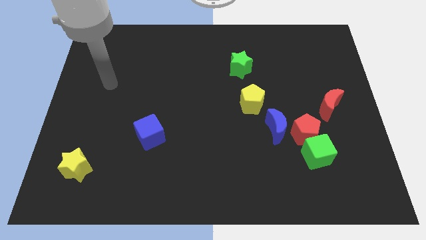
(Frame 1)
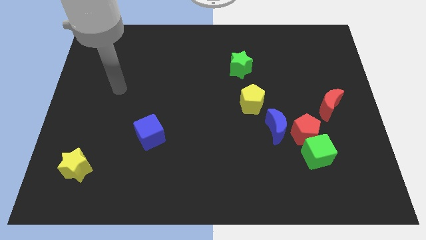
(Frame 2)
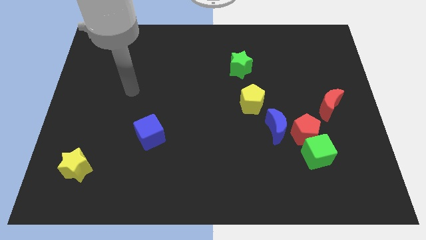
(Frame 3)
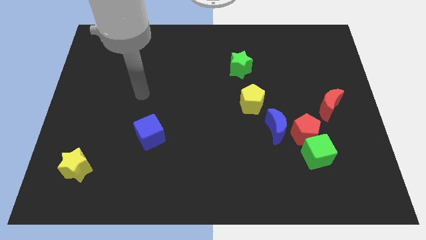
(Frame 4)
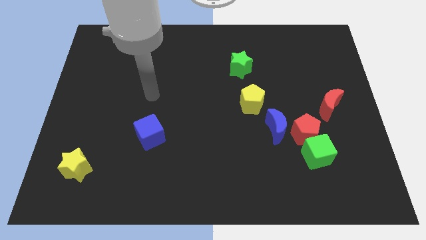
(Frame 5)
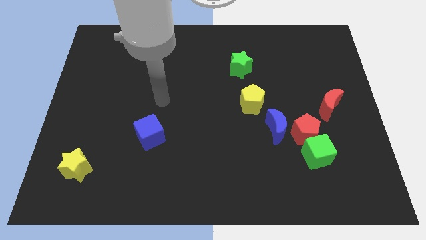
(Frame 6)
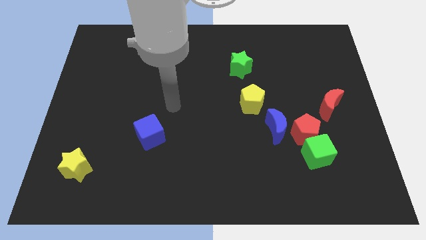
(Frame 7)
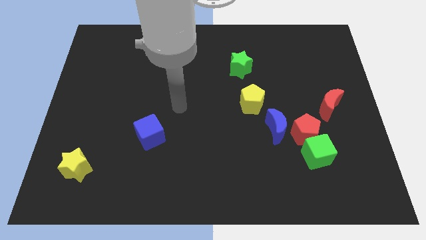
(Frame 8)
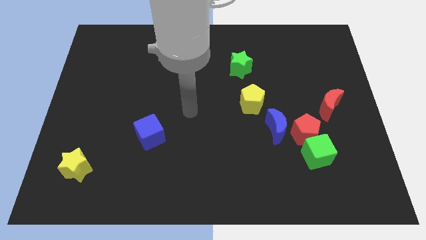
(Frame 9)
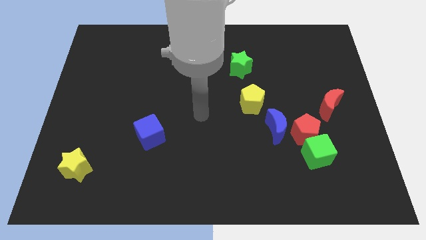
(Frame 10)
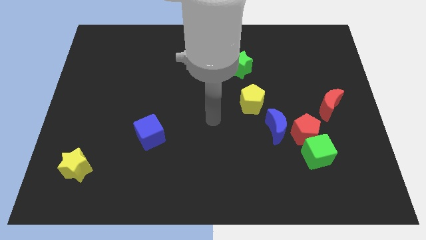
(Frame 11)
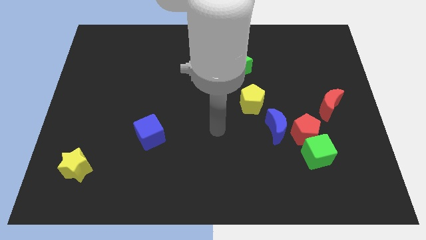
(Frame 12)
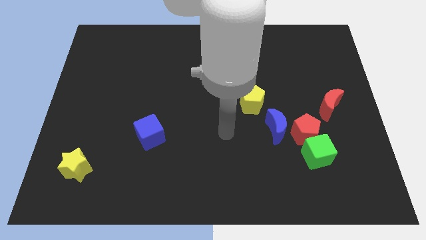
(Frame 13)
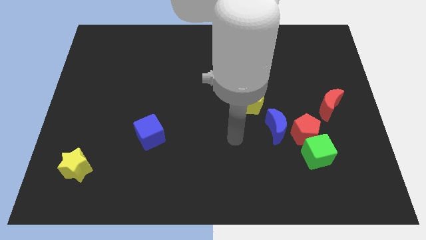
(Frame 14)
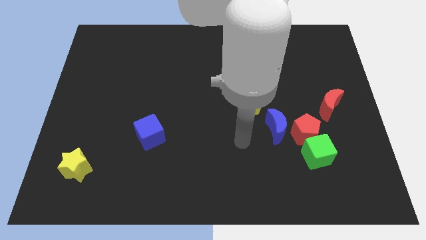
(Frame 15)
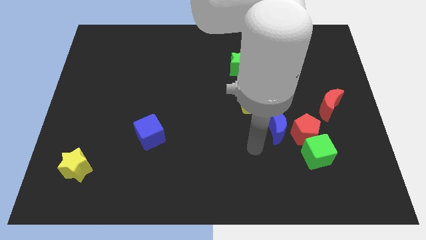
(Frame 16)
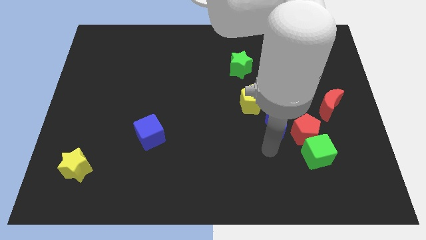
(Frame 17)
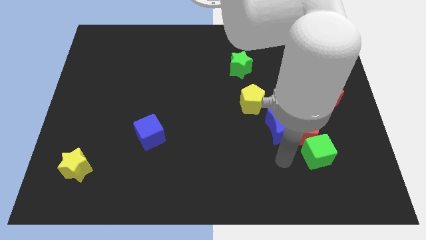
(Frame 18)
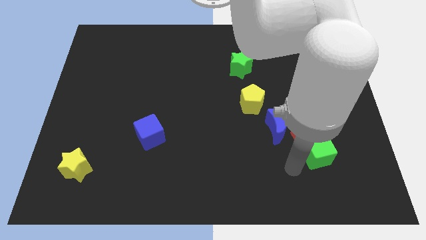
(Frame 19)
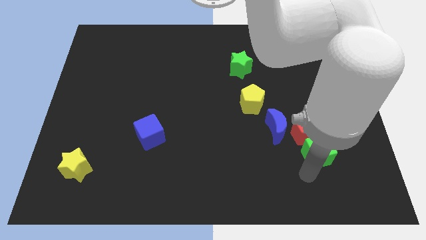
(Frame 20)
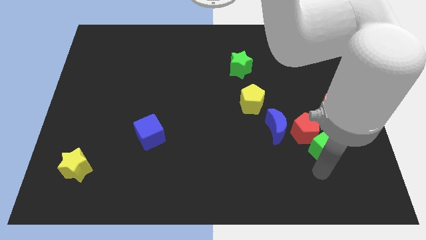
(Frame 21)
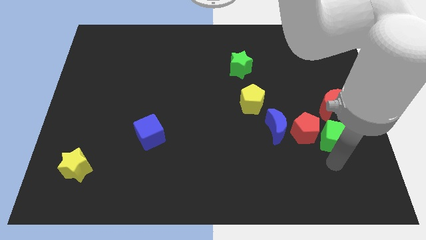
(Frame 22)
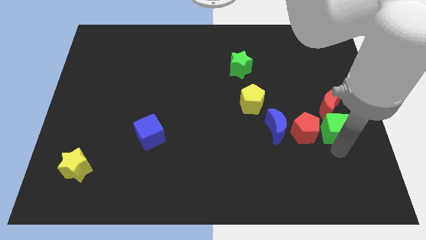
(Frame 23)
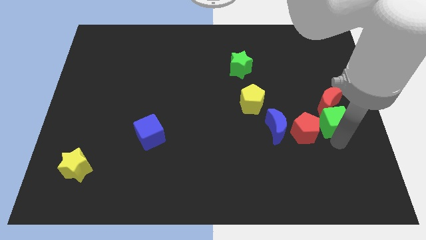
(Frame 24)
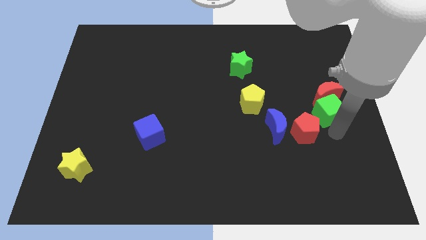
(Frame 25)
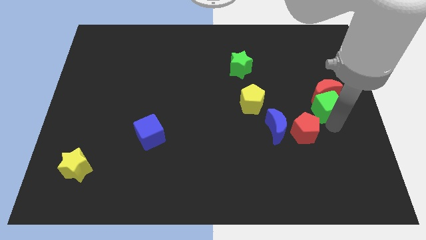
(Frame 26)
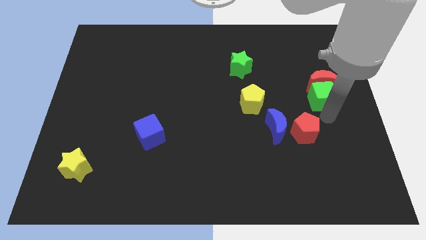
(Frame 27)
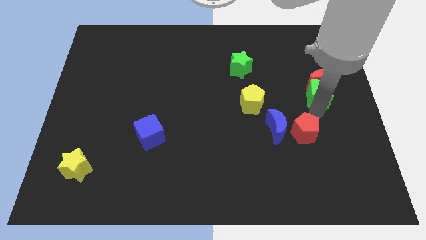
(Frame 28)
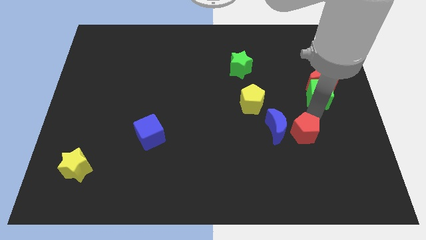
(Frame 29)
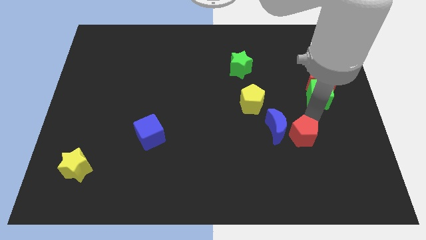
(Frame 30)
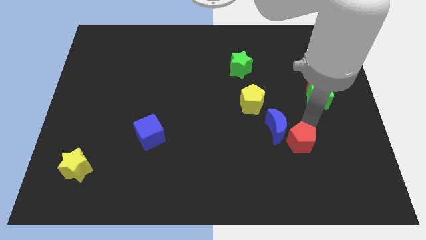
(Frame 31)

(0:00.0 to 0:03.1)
pull the red pentagon apart from the clump

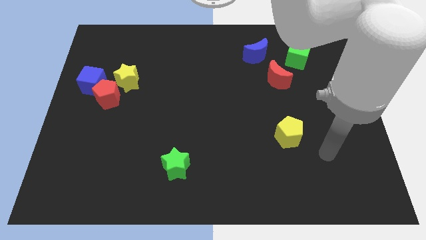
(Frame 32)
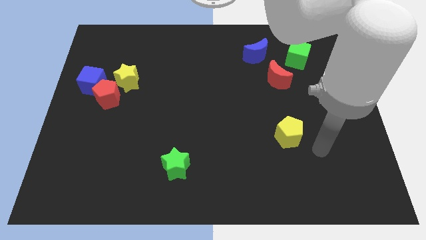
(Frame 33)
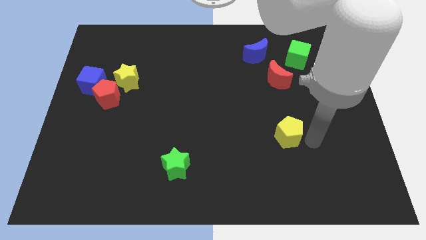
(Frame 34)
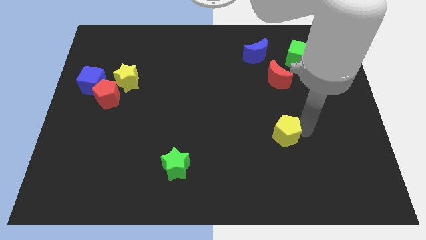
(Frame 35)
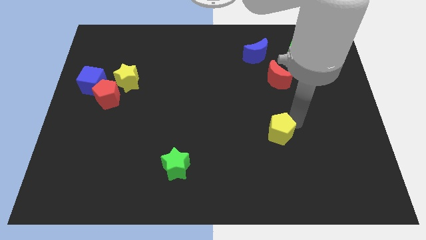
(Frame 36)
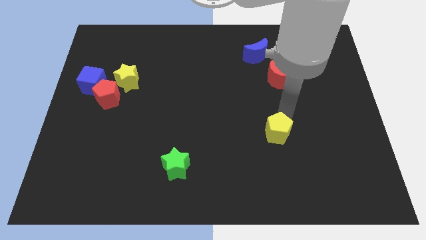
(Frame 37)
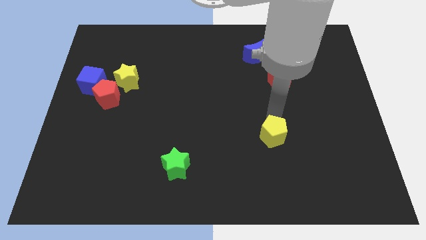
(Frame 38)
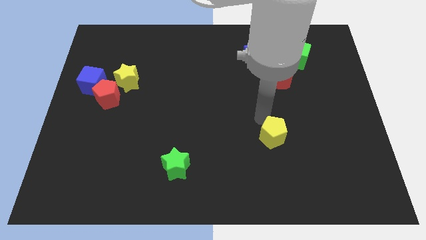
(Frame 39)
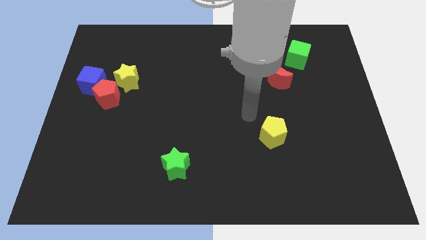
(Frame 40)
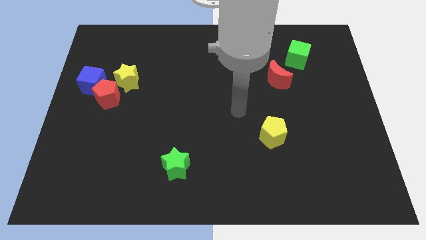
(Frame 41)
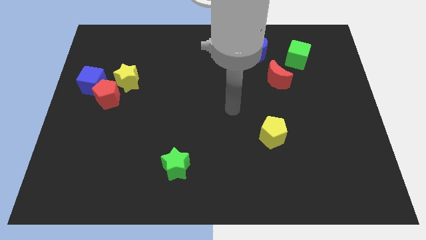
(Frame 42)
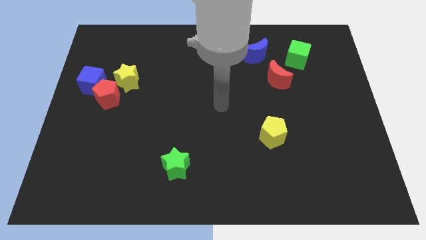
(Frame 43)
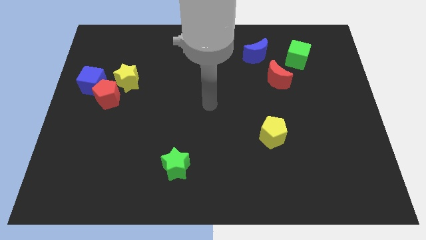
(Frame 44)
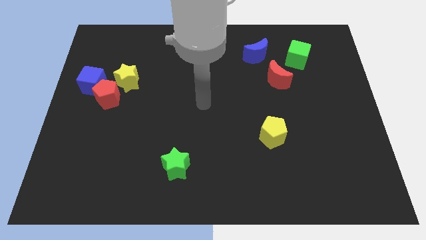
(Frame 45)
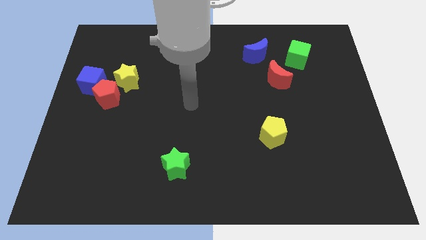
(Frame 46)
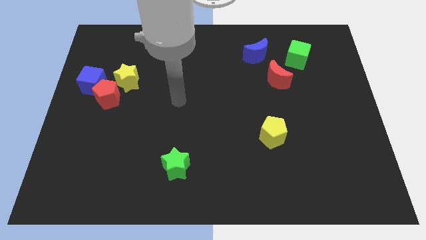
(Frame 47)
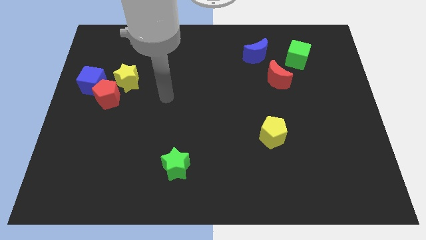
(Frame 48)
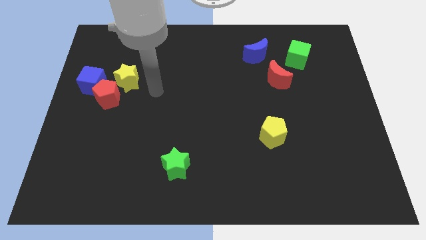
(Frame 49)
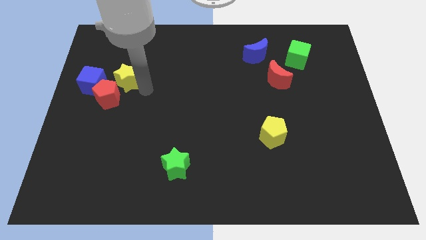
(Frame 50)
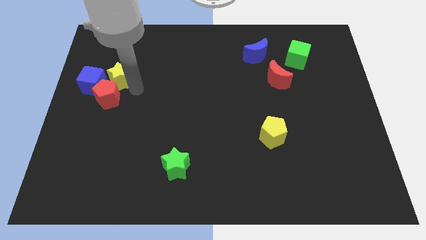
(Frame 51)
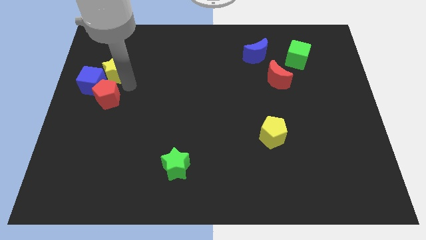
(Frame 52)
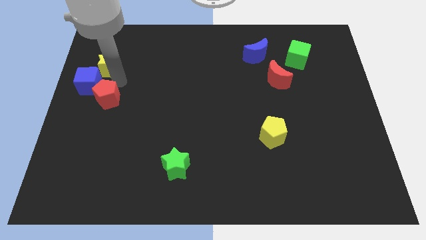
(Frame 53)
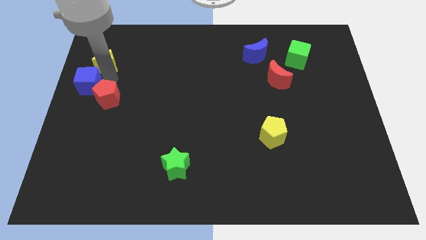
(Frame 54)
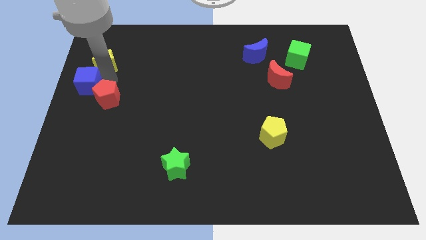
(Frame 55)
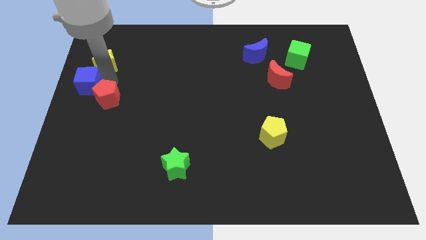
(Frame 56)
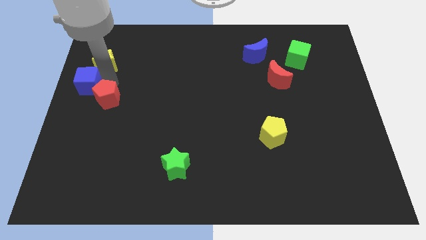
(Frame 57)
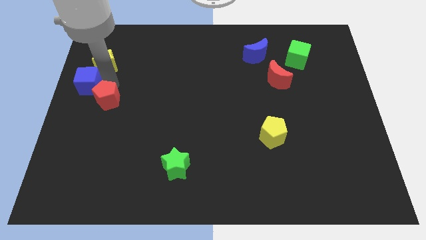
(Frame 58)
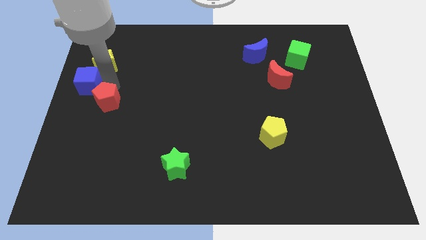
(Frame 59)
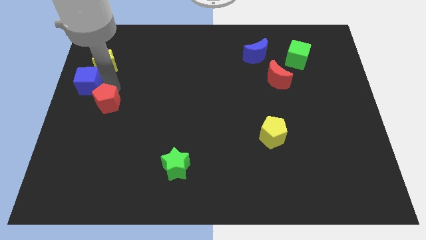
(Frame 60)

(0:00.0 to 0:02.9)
pull the red pentagon apart from the blue cube and yellow star

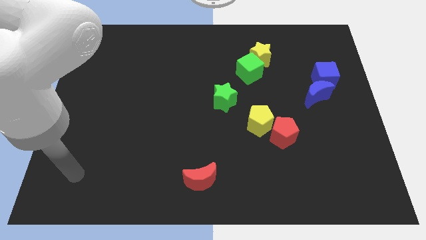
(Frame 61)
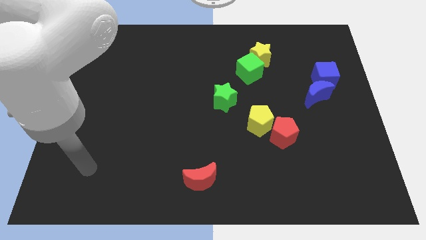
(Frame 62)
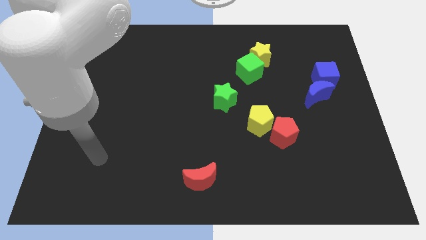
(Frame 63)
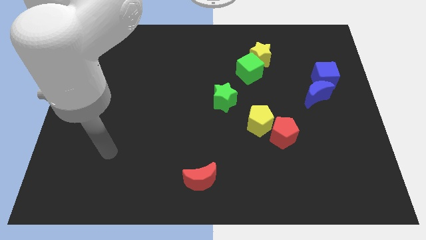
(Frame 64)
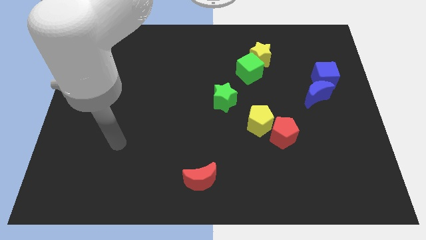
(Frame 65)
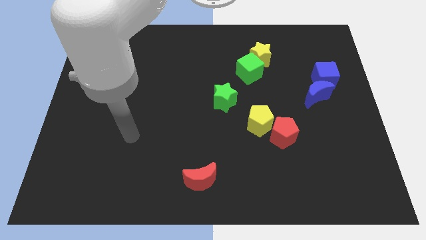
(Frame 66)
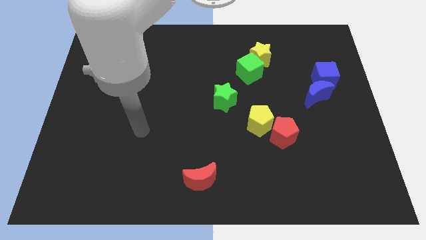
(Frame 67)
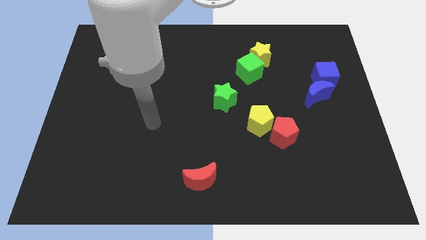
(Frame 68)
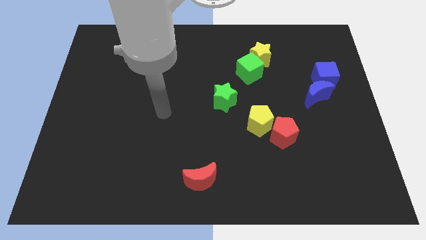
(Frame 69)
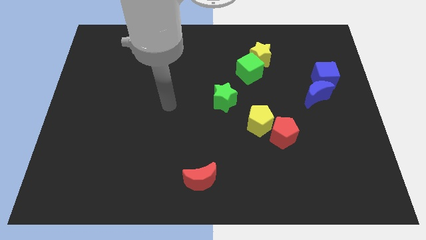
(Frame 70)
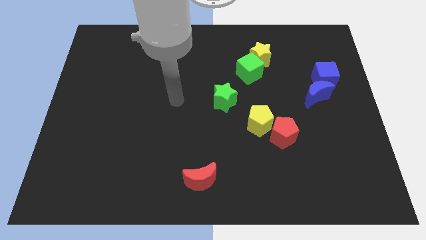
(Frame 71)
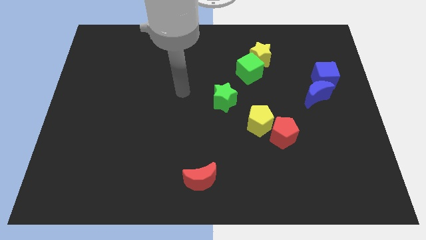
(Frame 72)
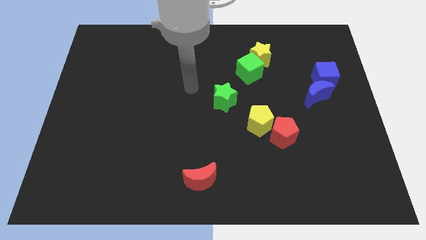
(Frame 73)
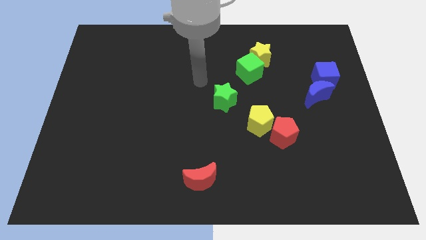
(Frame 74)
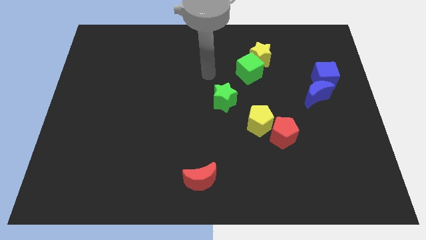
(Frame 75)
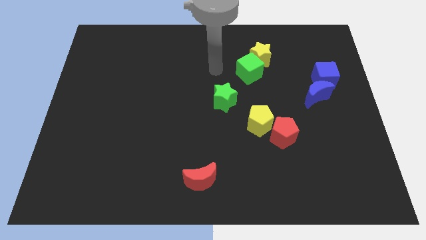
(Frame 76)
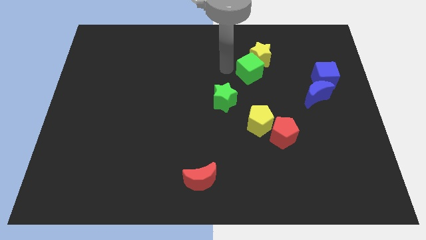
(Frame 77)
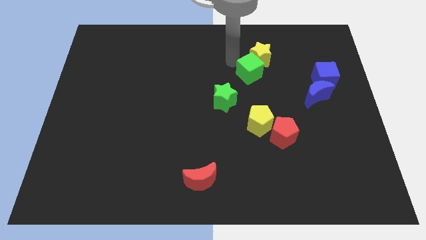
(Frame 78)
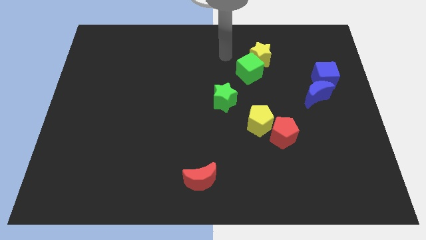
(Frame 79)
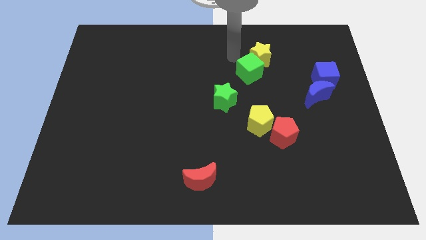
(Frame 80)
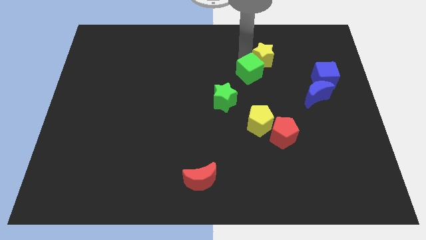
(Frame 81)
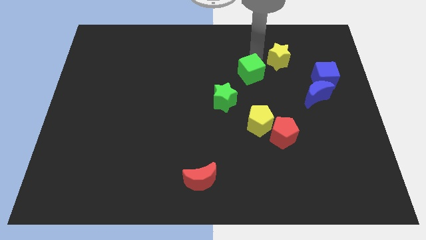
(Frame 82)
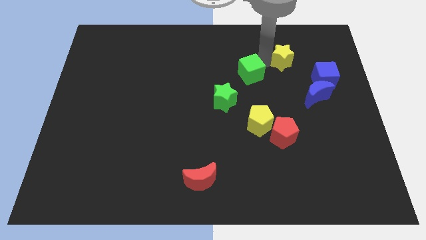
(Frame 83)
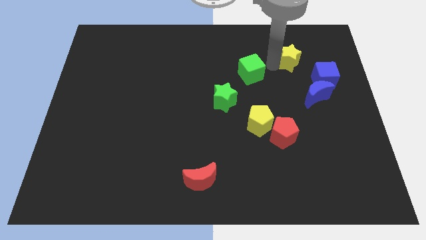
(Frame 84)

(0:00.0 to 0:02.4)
pull the green cube apart from the yellow star

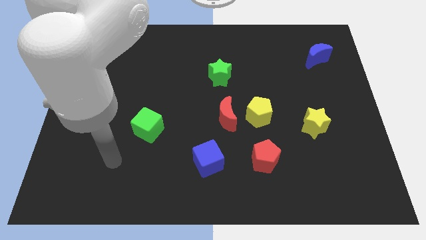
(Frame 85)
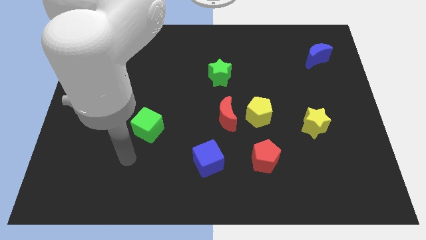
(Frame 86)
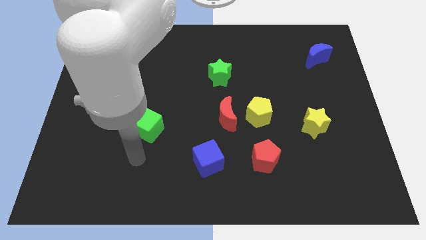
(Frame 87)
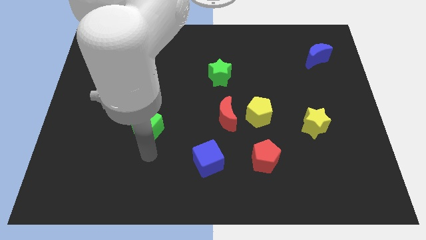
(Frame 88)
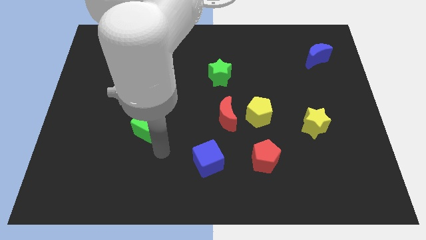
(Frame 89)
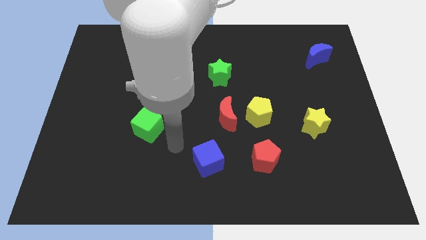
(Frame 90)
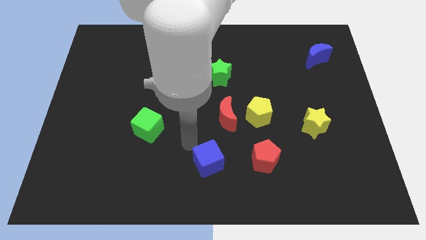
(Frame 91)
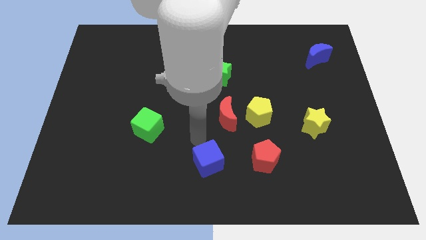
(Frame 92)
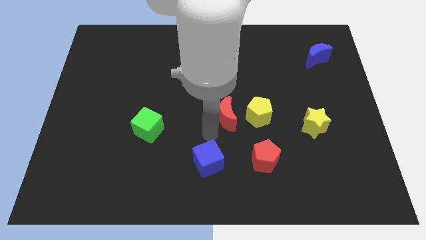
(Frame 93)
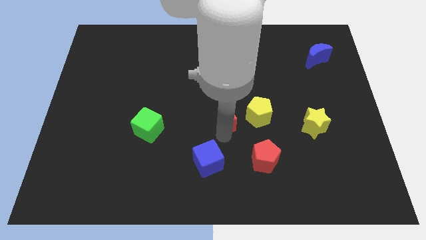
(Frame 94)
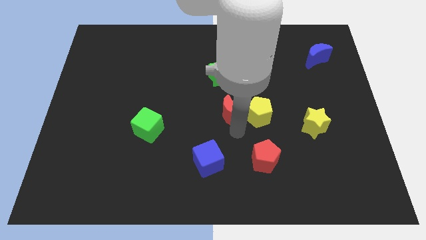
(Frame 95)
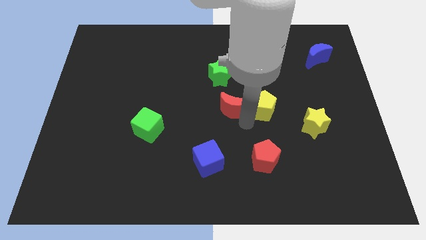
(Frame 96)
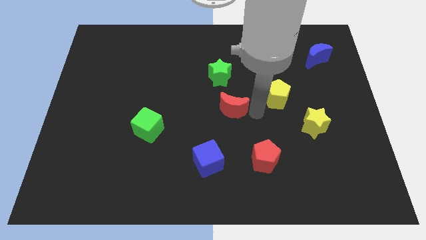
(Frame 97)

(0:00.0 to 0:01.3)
separate the red moon from the yellow pentagon
